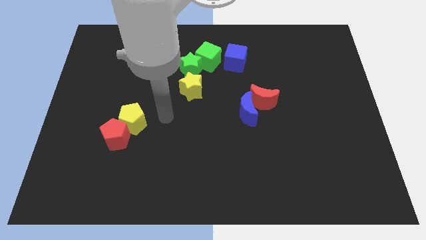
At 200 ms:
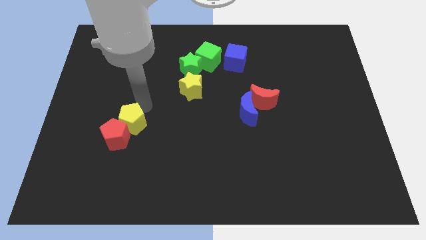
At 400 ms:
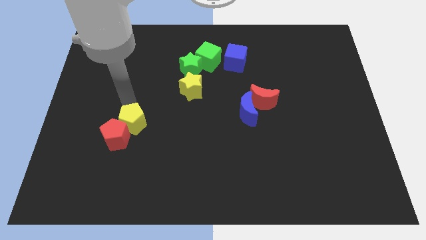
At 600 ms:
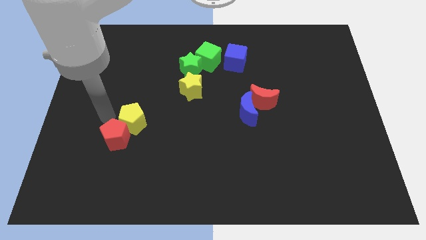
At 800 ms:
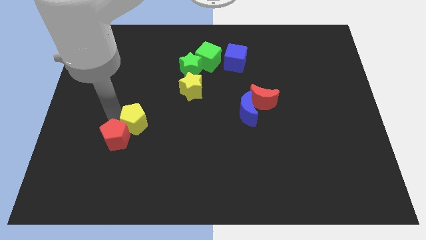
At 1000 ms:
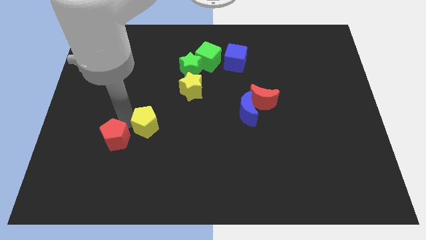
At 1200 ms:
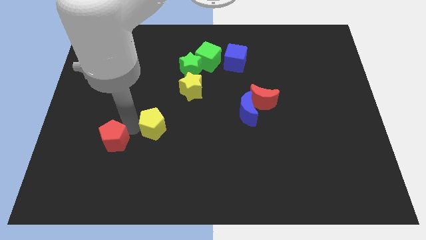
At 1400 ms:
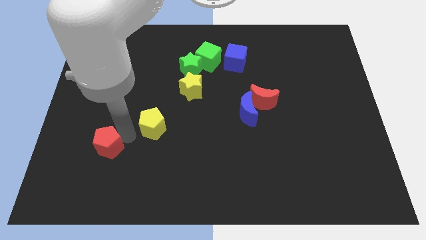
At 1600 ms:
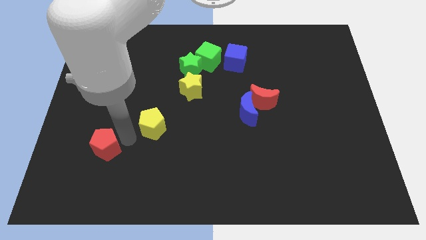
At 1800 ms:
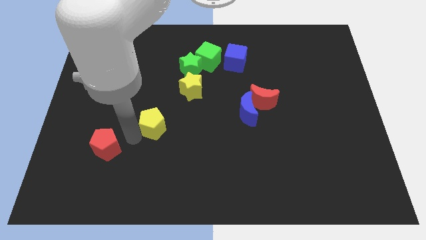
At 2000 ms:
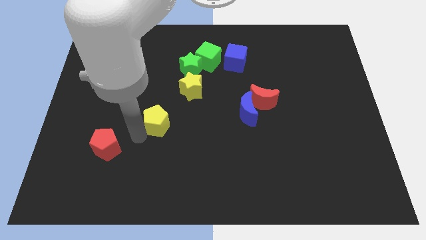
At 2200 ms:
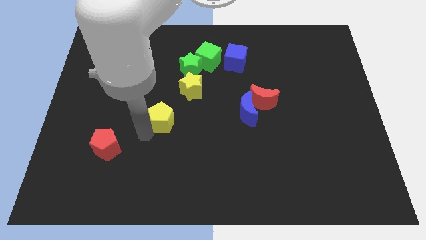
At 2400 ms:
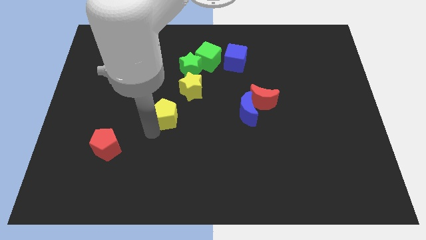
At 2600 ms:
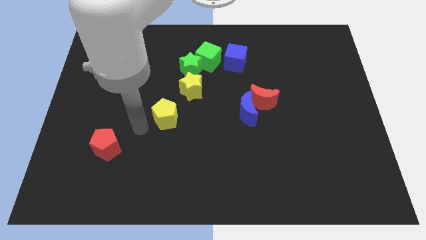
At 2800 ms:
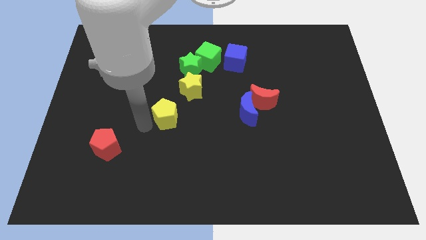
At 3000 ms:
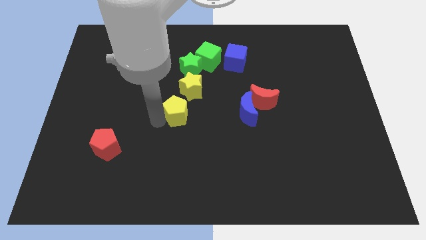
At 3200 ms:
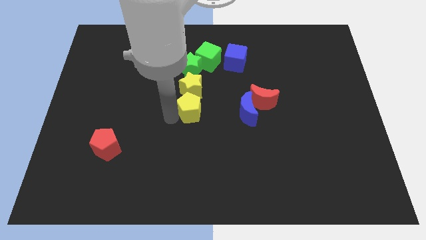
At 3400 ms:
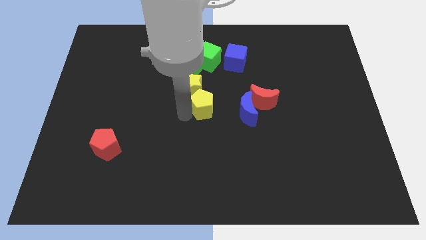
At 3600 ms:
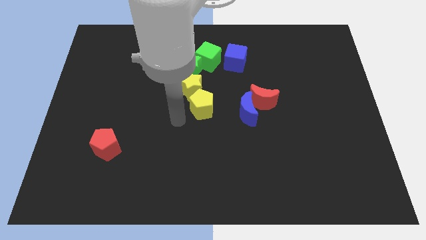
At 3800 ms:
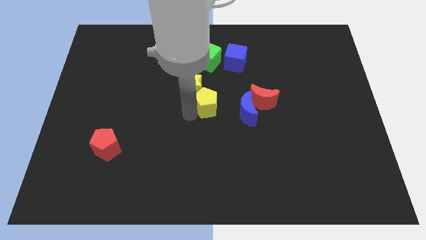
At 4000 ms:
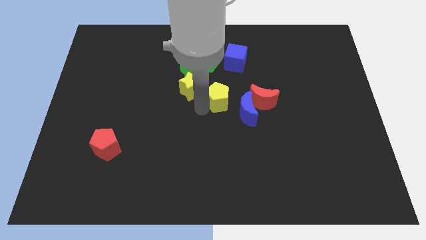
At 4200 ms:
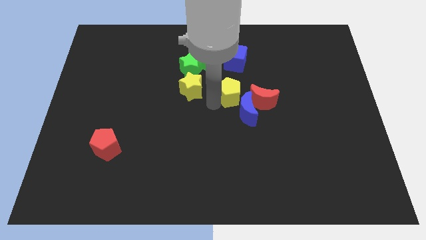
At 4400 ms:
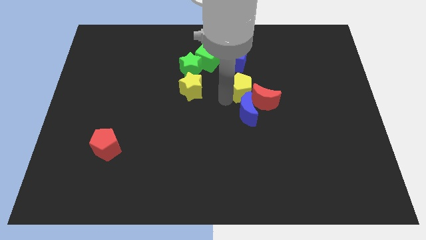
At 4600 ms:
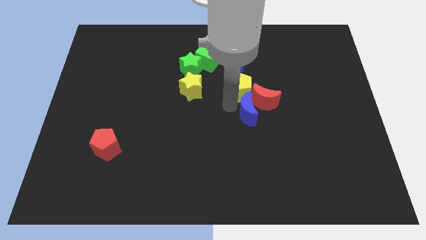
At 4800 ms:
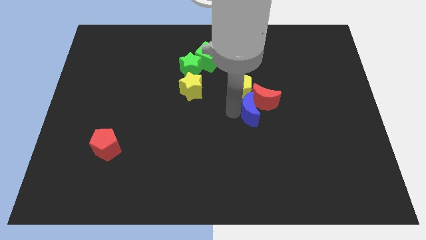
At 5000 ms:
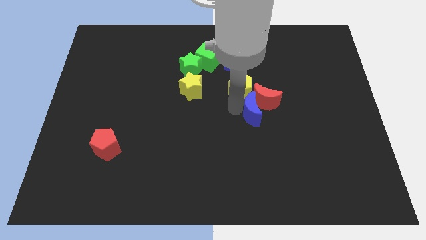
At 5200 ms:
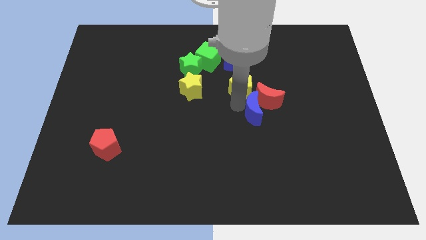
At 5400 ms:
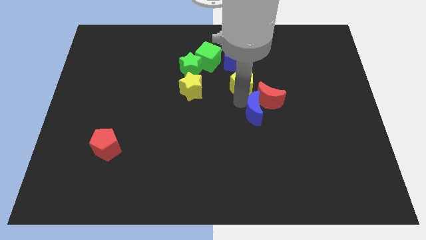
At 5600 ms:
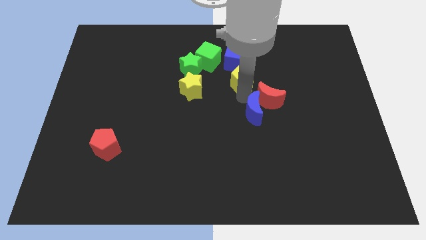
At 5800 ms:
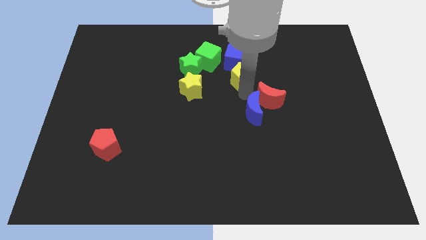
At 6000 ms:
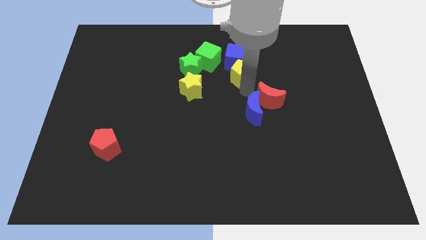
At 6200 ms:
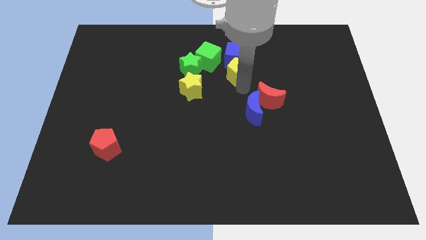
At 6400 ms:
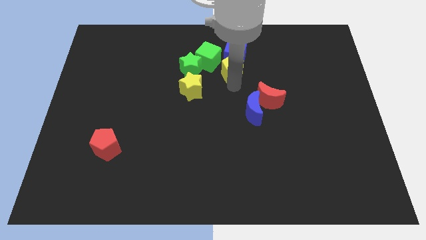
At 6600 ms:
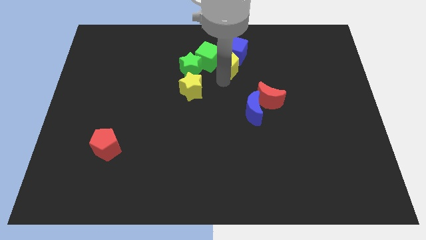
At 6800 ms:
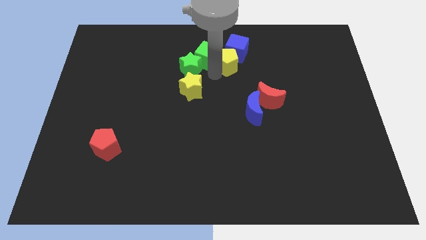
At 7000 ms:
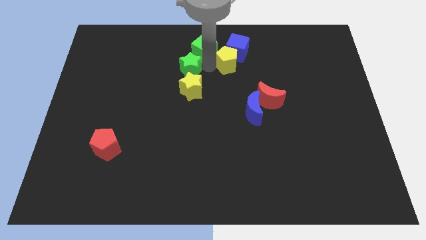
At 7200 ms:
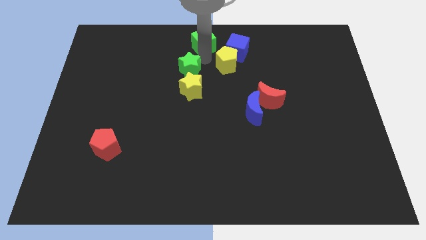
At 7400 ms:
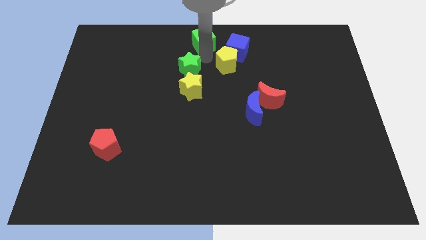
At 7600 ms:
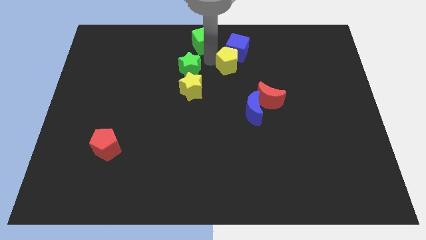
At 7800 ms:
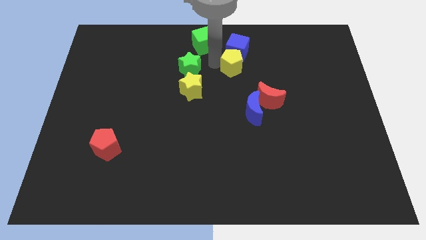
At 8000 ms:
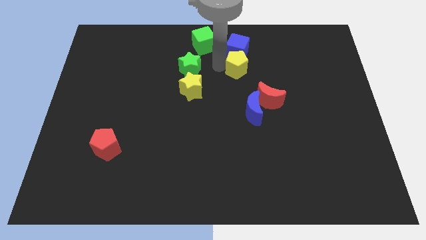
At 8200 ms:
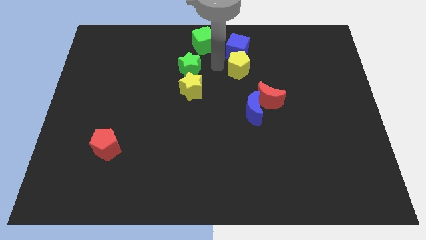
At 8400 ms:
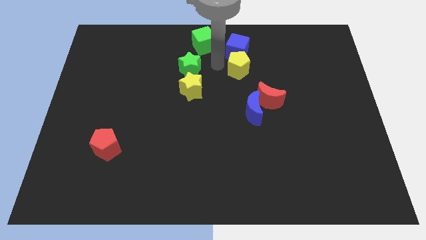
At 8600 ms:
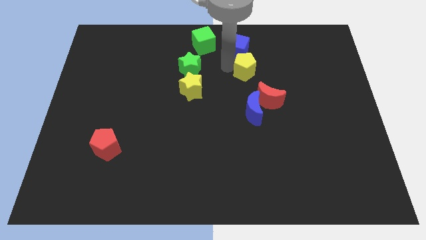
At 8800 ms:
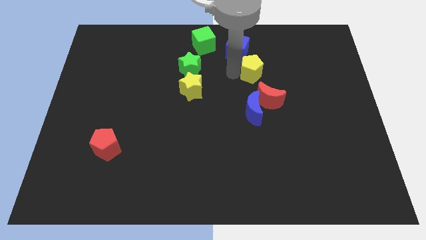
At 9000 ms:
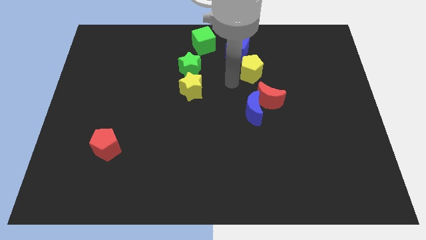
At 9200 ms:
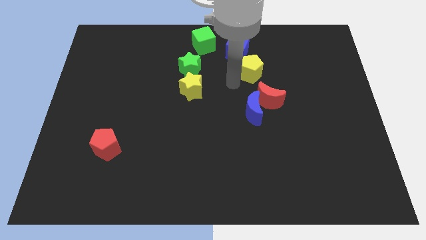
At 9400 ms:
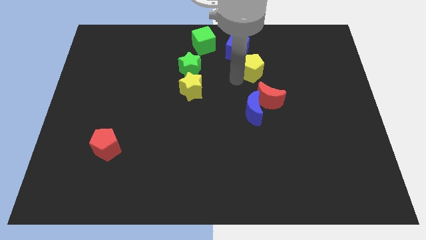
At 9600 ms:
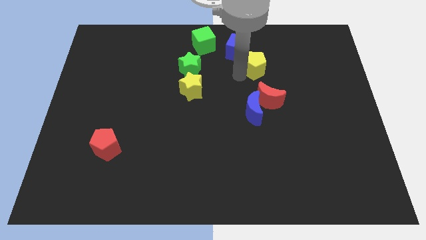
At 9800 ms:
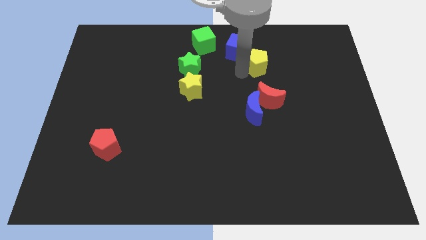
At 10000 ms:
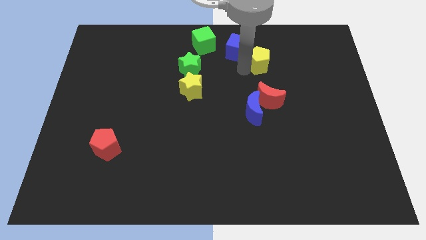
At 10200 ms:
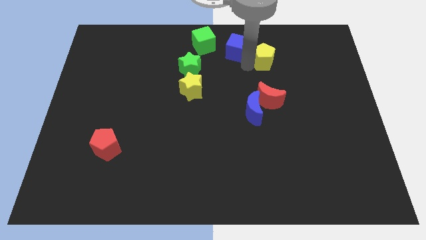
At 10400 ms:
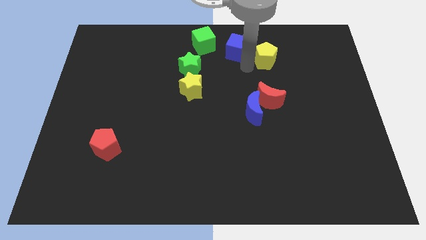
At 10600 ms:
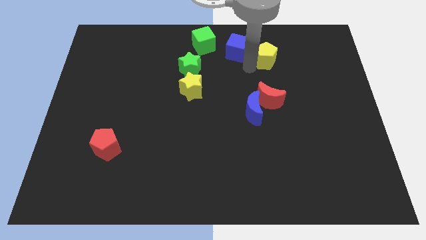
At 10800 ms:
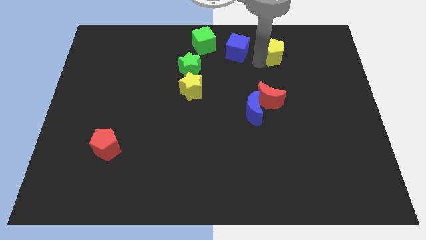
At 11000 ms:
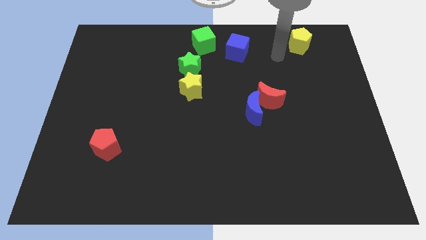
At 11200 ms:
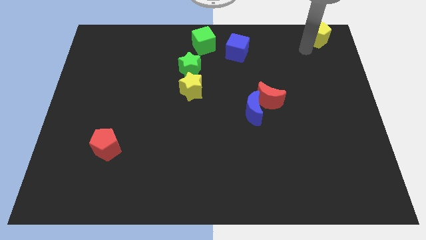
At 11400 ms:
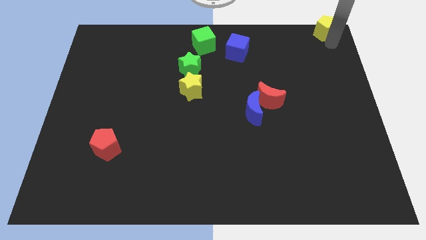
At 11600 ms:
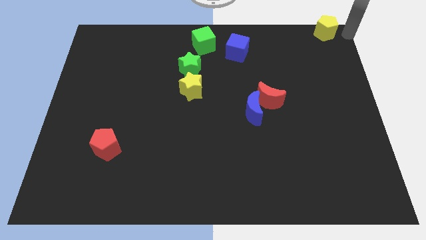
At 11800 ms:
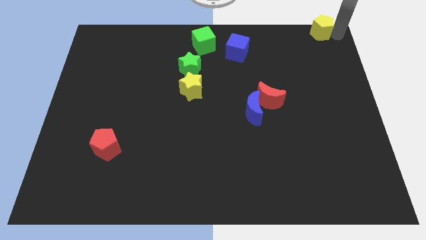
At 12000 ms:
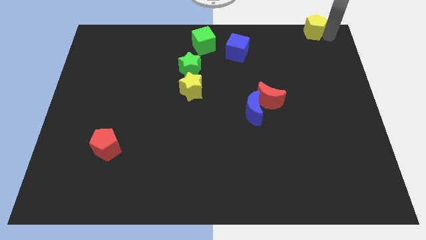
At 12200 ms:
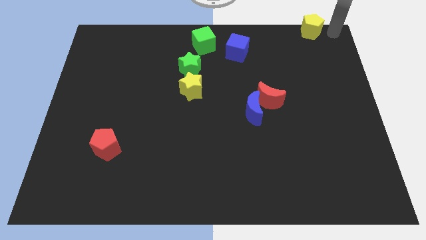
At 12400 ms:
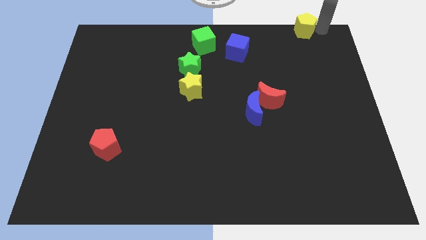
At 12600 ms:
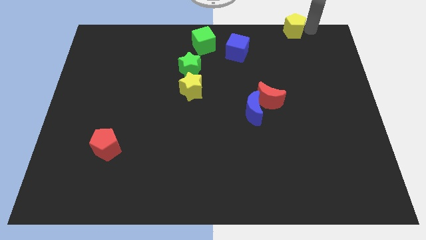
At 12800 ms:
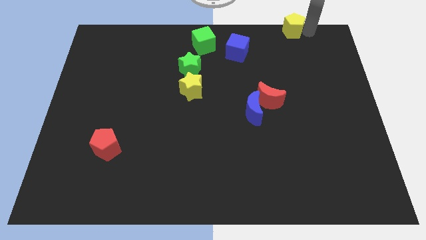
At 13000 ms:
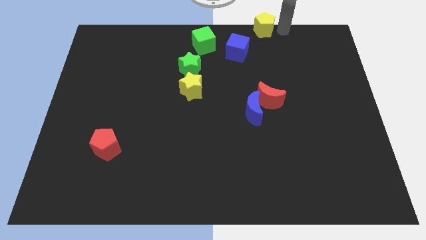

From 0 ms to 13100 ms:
slide the yellow pentagon to the top side
